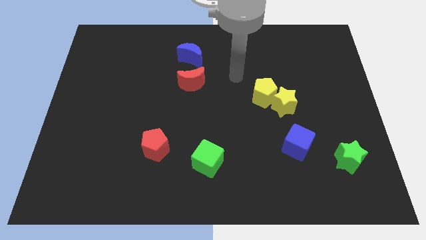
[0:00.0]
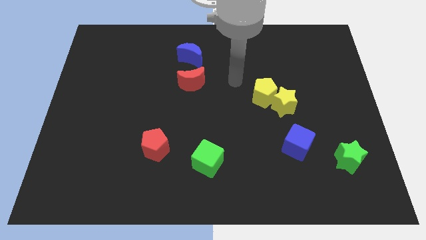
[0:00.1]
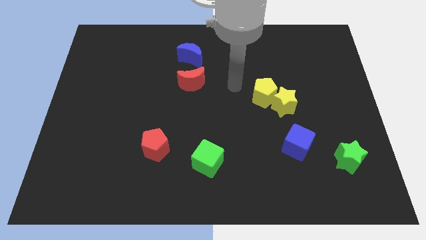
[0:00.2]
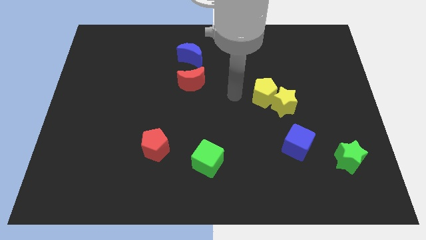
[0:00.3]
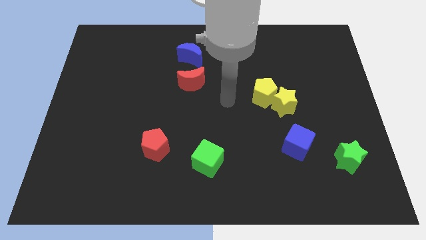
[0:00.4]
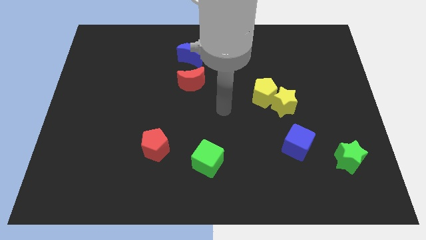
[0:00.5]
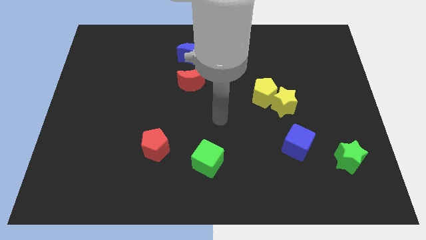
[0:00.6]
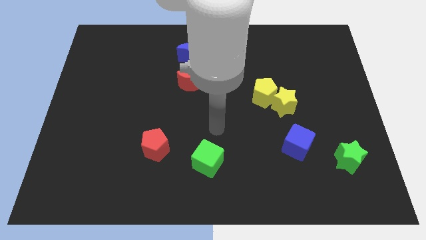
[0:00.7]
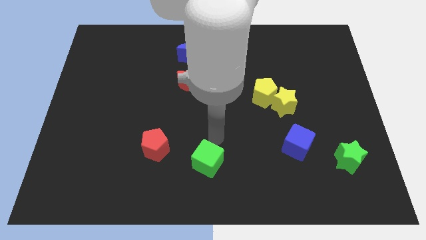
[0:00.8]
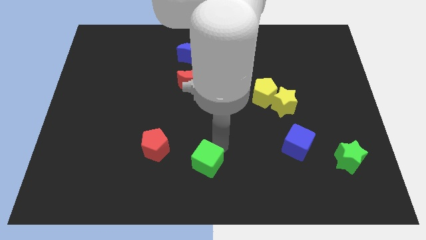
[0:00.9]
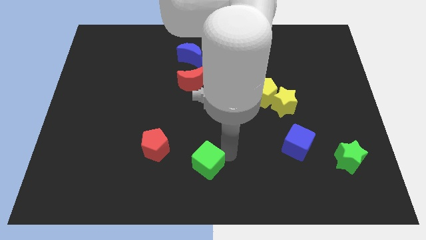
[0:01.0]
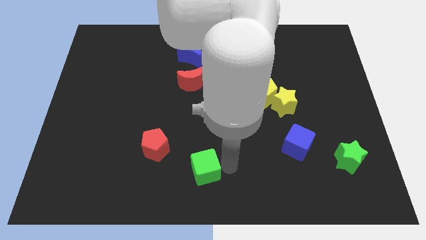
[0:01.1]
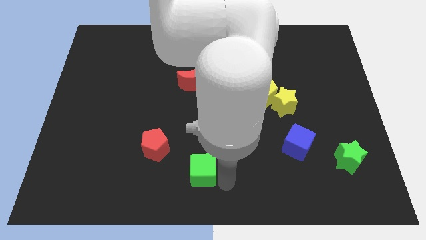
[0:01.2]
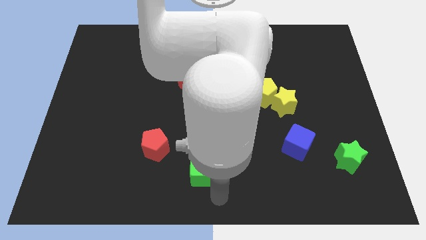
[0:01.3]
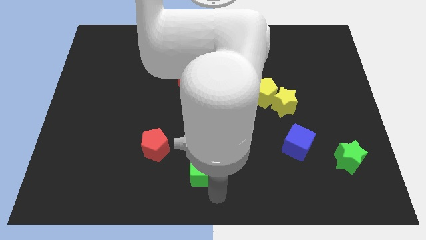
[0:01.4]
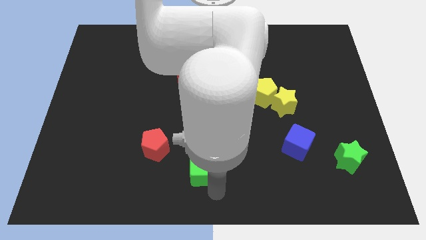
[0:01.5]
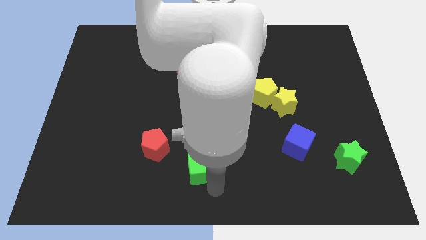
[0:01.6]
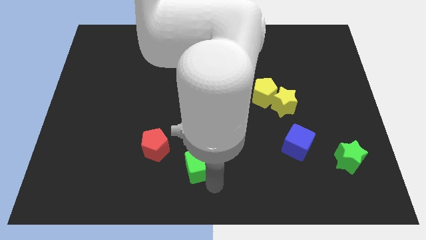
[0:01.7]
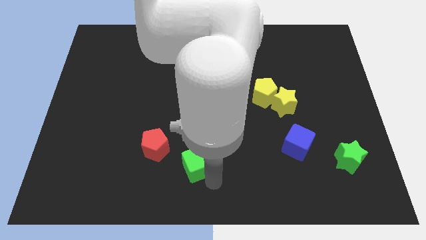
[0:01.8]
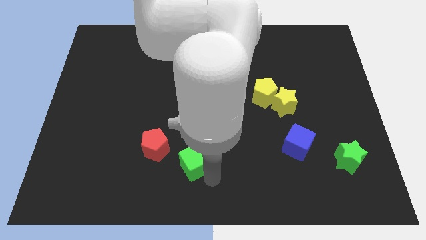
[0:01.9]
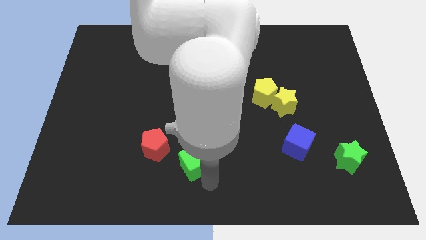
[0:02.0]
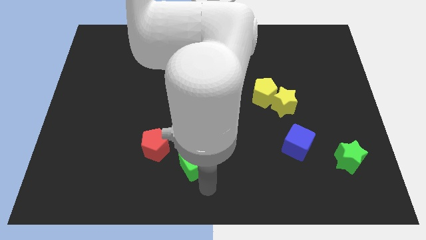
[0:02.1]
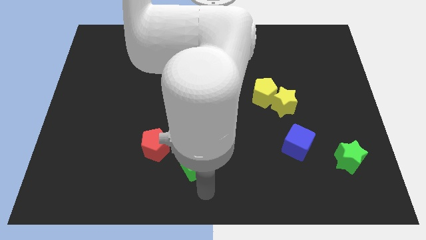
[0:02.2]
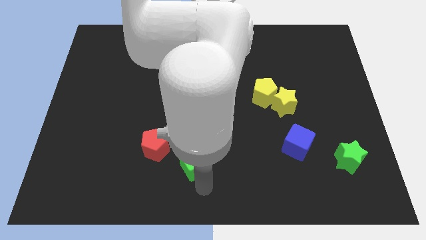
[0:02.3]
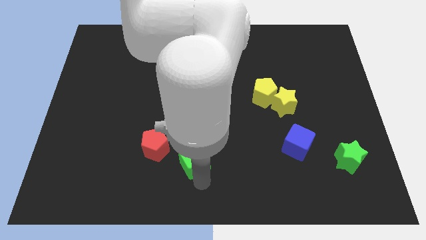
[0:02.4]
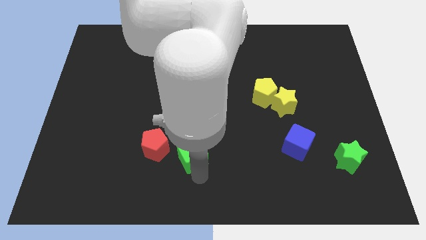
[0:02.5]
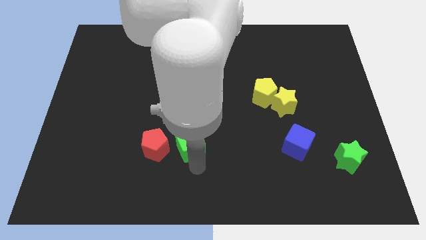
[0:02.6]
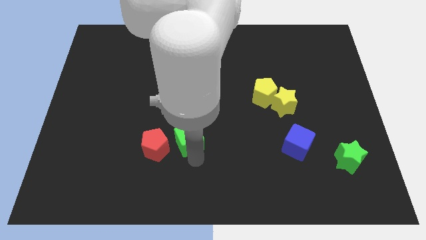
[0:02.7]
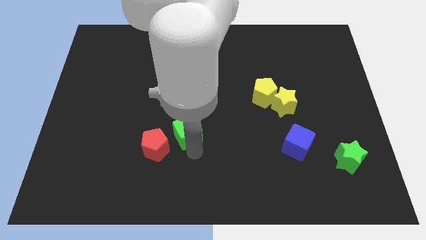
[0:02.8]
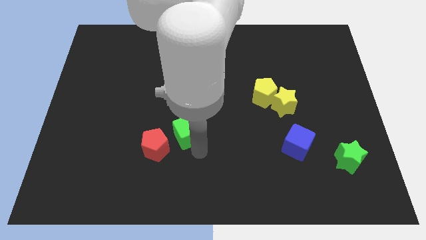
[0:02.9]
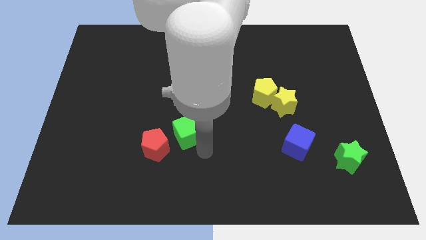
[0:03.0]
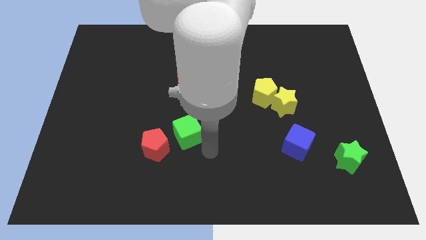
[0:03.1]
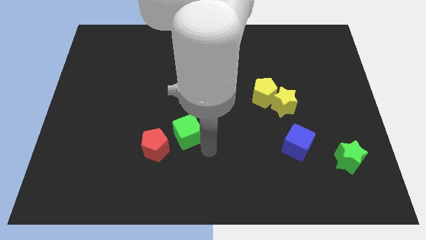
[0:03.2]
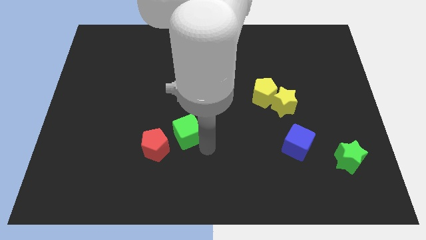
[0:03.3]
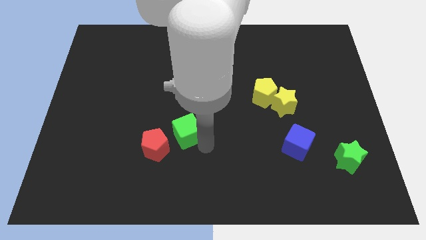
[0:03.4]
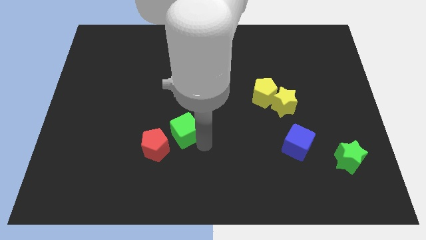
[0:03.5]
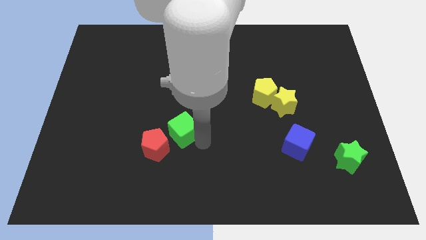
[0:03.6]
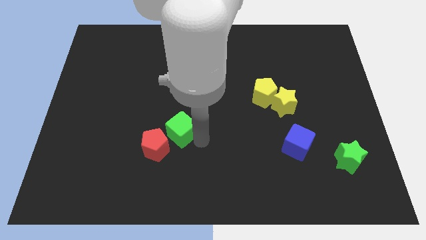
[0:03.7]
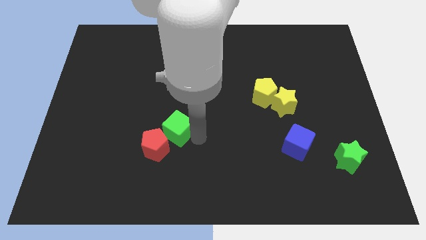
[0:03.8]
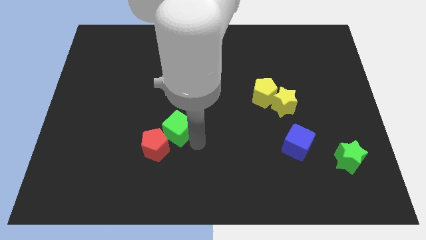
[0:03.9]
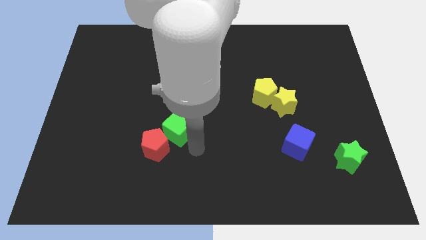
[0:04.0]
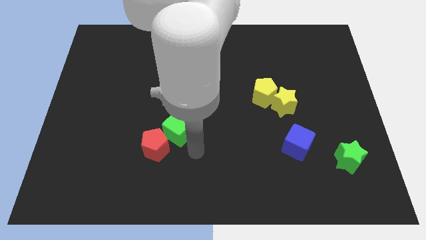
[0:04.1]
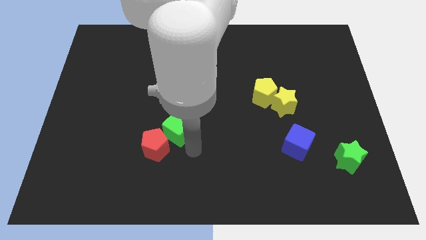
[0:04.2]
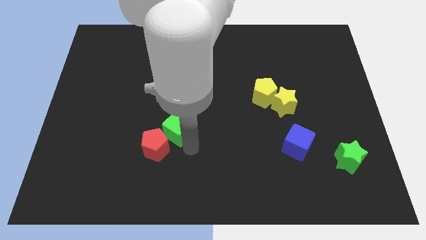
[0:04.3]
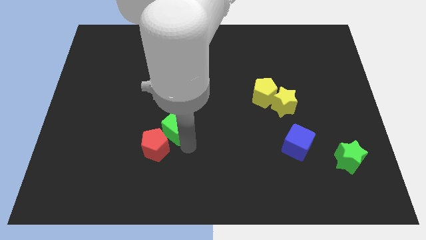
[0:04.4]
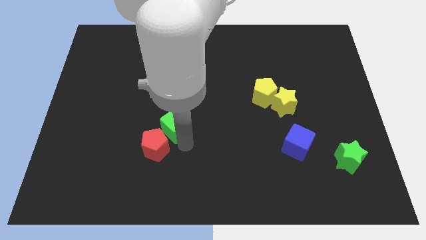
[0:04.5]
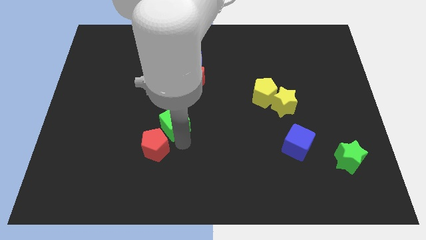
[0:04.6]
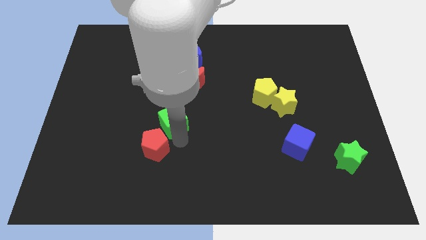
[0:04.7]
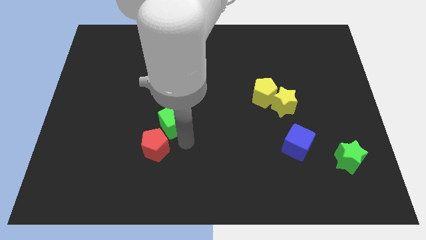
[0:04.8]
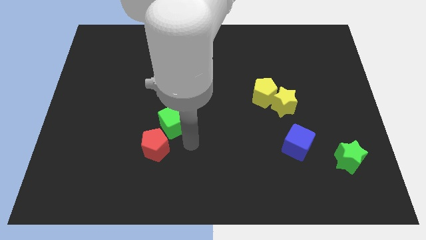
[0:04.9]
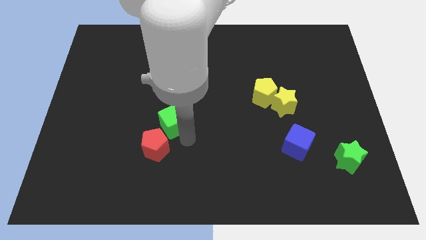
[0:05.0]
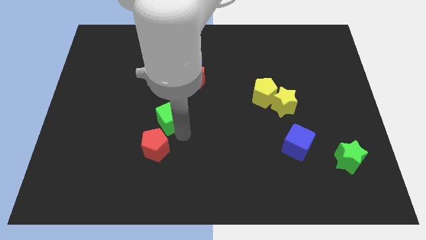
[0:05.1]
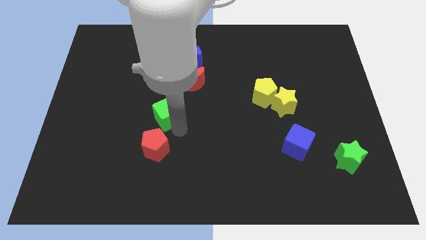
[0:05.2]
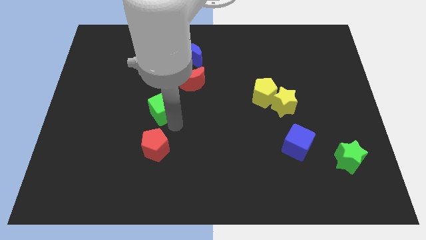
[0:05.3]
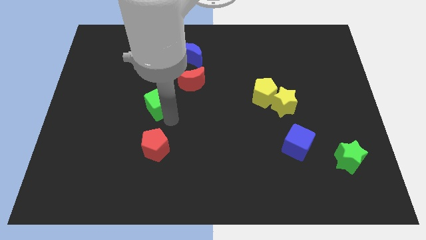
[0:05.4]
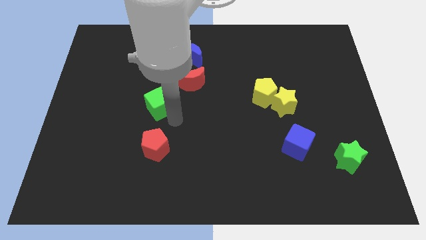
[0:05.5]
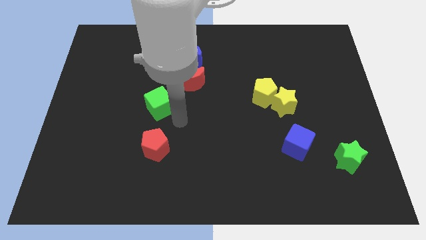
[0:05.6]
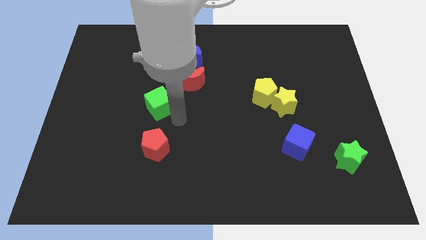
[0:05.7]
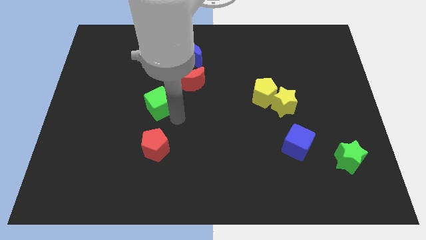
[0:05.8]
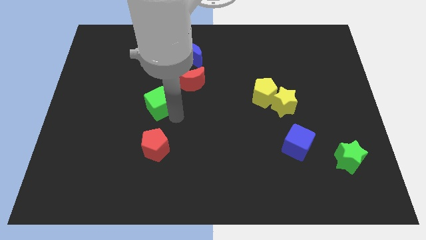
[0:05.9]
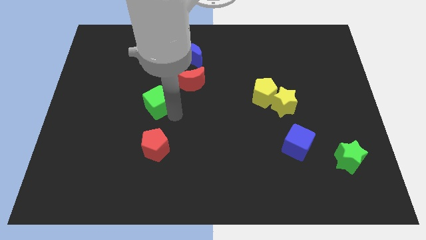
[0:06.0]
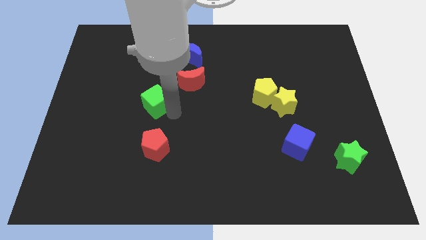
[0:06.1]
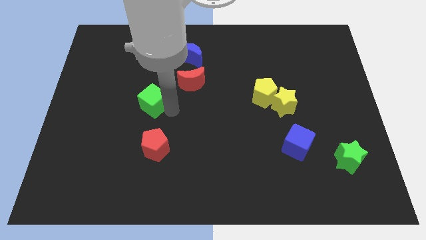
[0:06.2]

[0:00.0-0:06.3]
push the green cube up and left

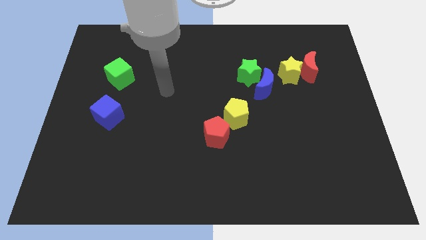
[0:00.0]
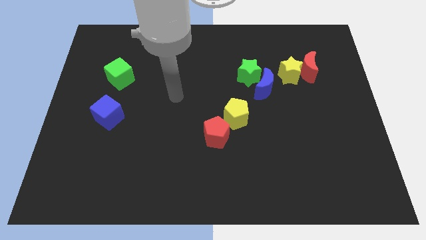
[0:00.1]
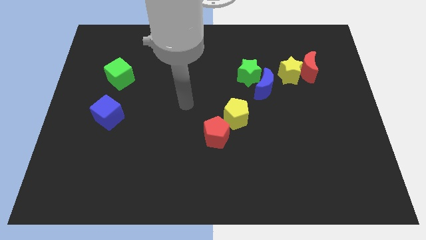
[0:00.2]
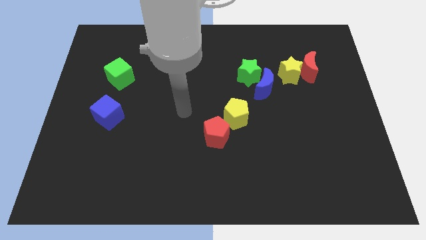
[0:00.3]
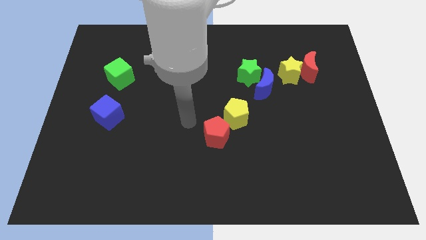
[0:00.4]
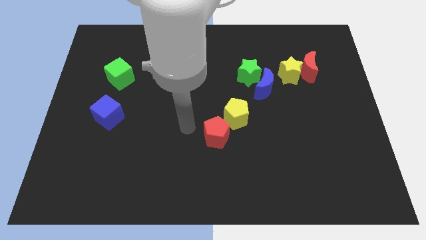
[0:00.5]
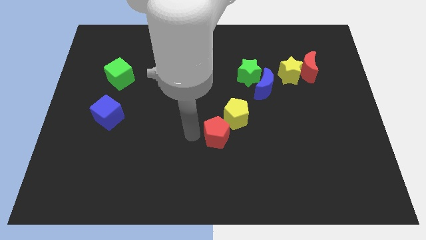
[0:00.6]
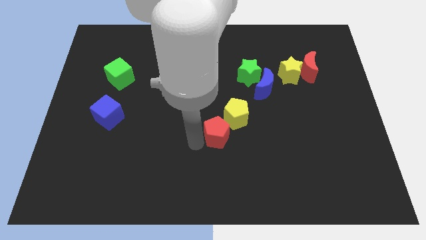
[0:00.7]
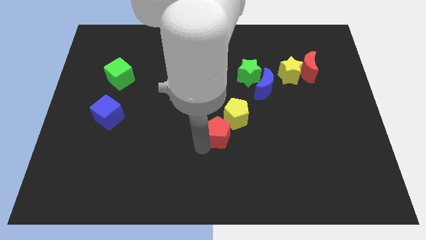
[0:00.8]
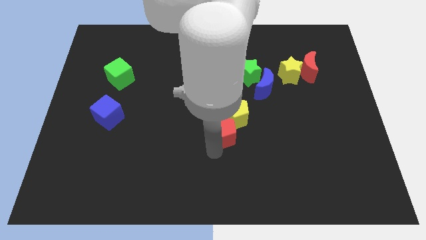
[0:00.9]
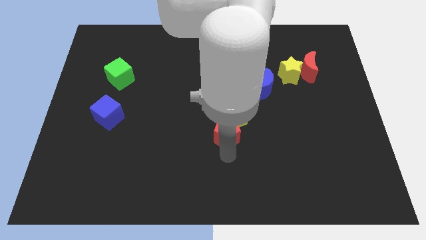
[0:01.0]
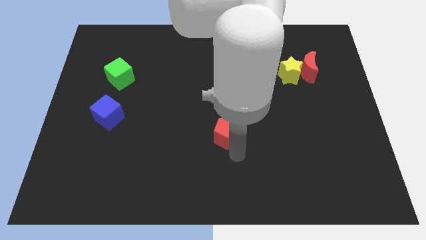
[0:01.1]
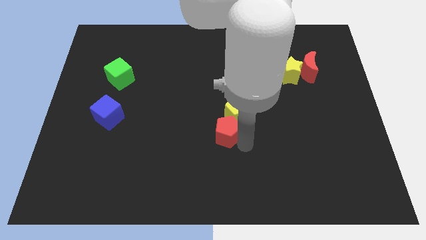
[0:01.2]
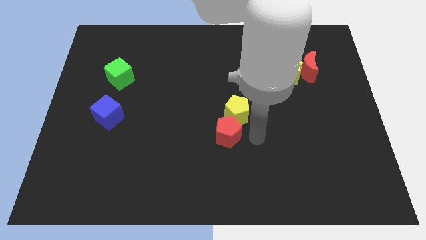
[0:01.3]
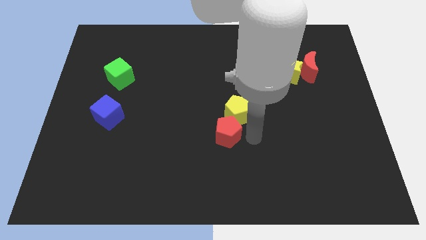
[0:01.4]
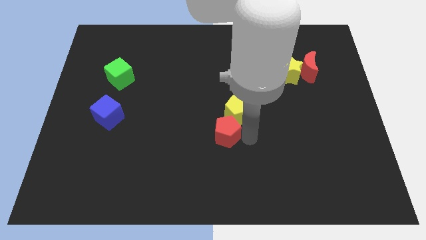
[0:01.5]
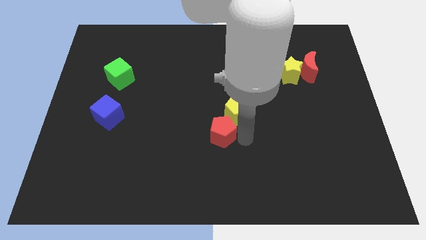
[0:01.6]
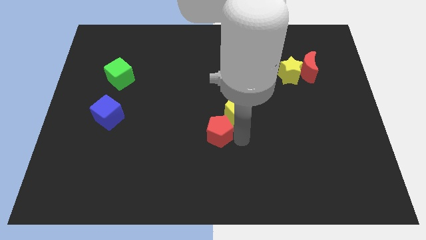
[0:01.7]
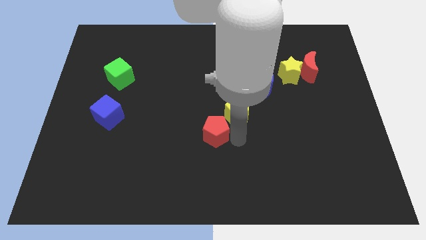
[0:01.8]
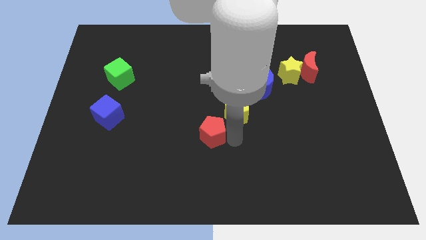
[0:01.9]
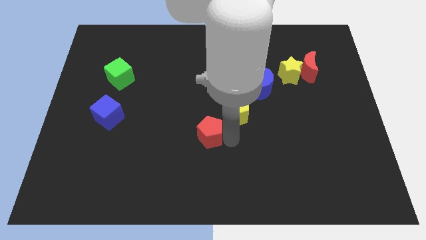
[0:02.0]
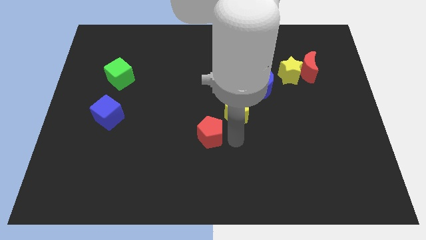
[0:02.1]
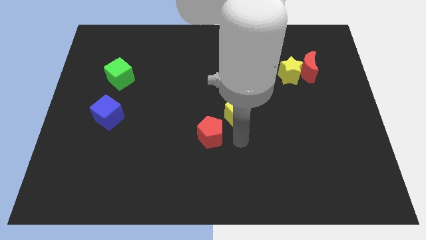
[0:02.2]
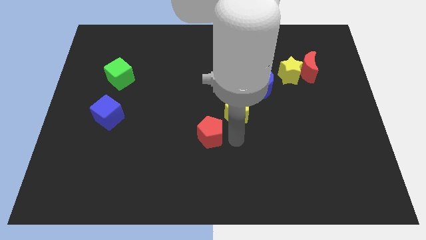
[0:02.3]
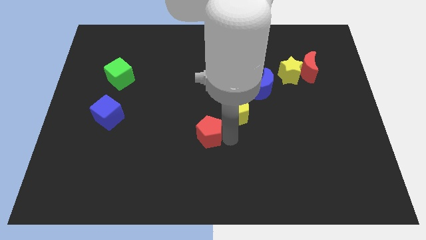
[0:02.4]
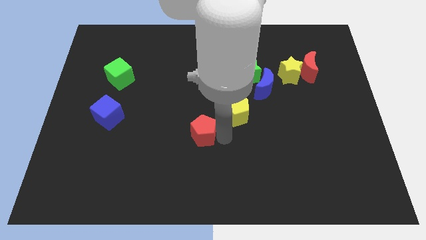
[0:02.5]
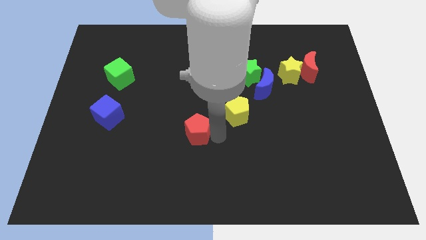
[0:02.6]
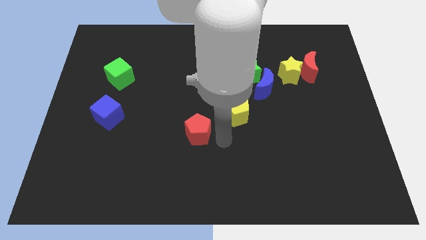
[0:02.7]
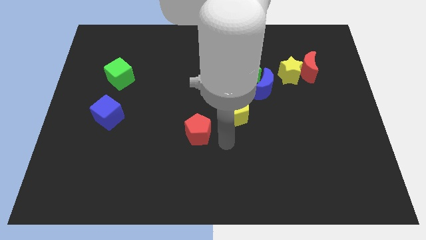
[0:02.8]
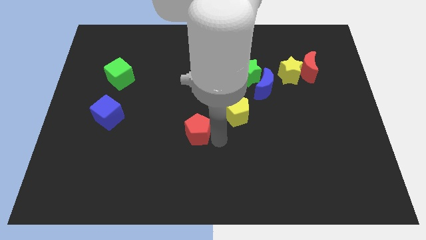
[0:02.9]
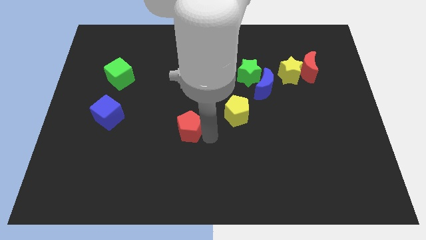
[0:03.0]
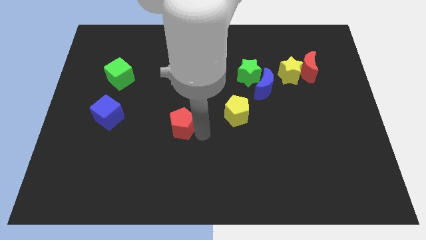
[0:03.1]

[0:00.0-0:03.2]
slide the red pentagon a little left
